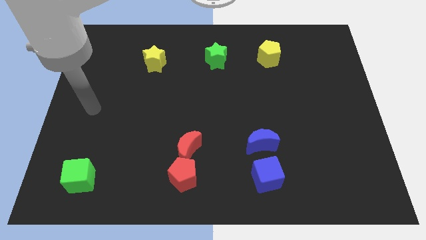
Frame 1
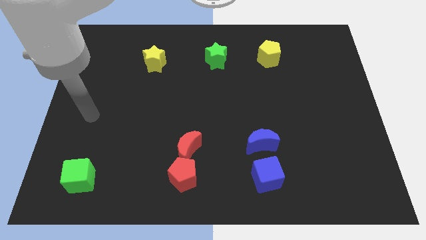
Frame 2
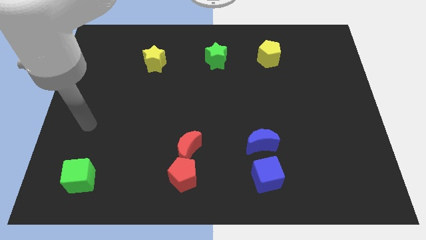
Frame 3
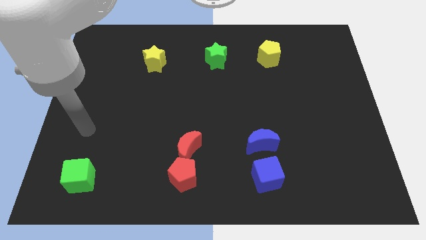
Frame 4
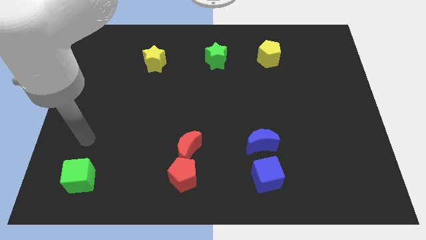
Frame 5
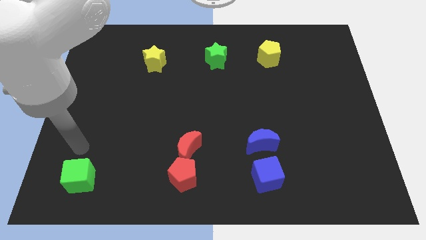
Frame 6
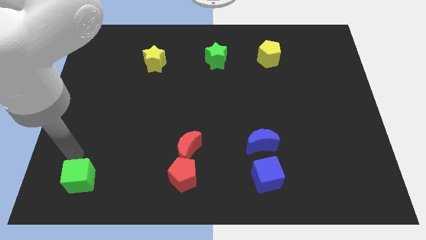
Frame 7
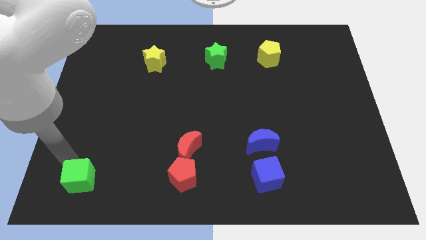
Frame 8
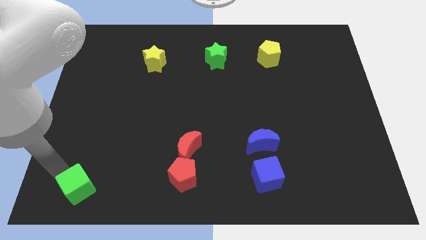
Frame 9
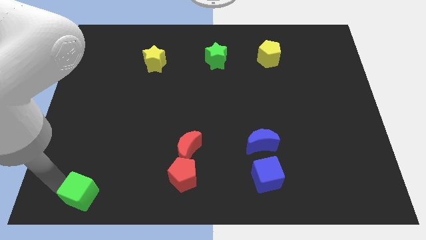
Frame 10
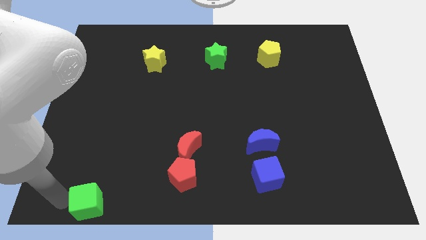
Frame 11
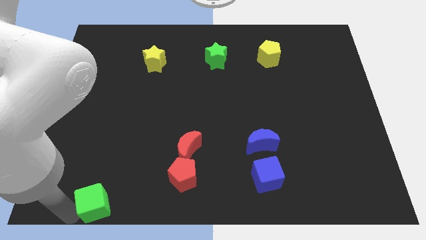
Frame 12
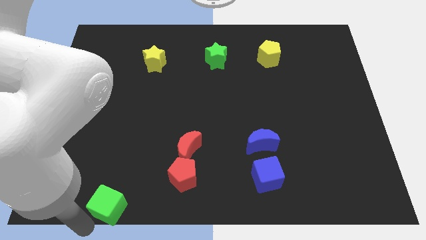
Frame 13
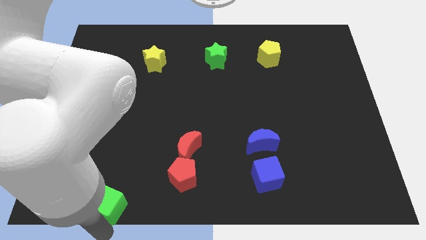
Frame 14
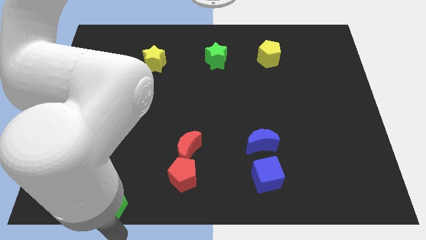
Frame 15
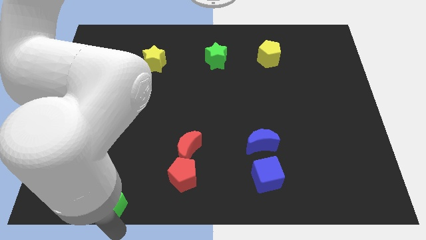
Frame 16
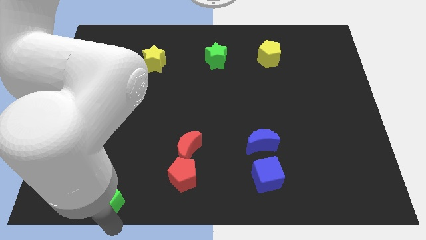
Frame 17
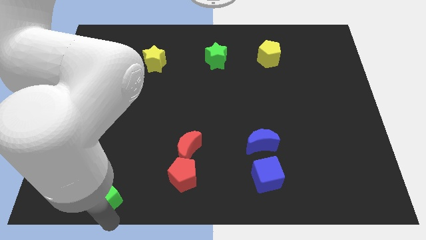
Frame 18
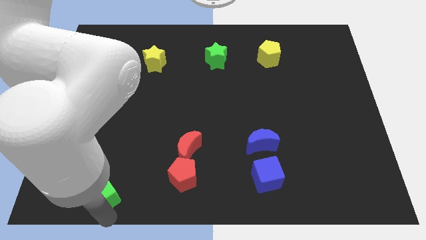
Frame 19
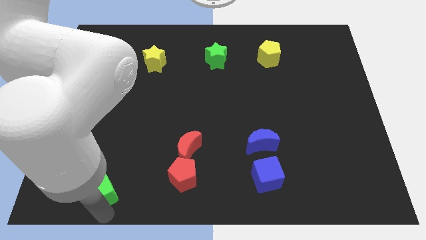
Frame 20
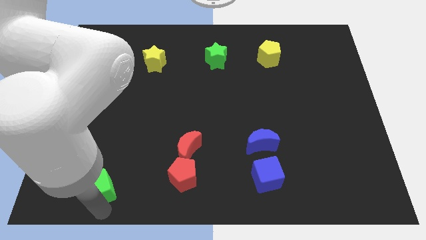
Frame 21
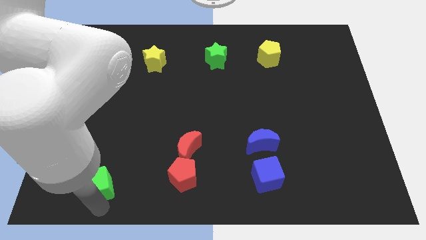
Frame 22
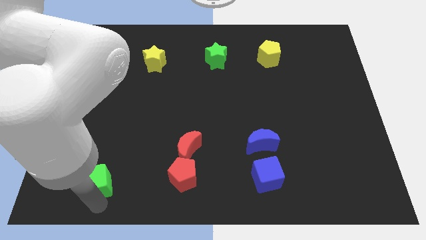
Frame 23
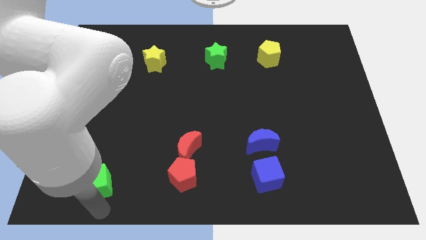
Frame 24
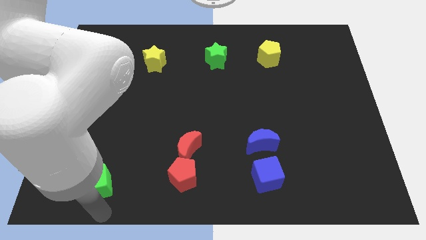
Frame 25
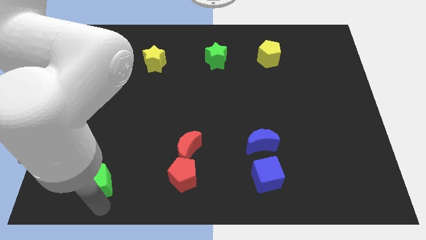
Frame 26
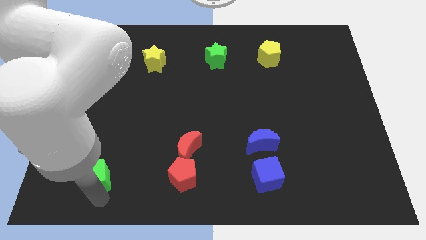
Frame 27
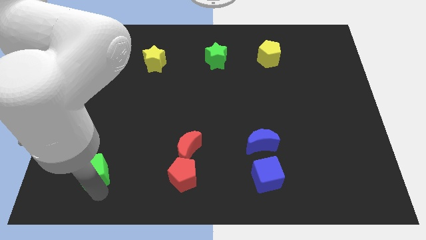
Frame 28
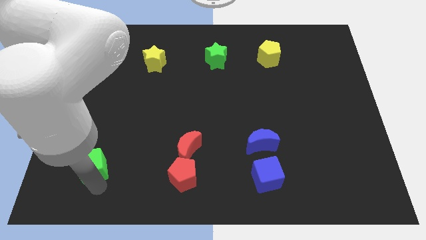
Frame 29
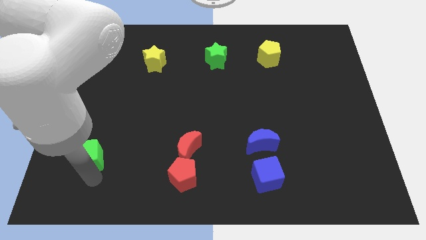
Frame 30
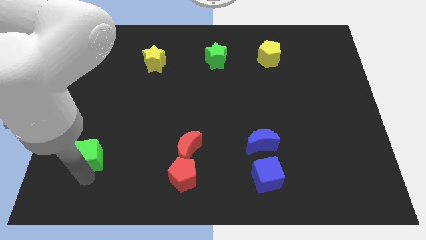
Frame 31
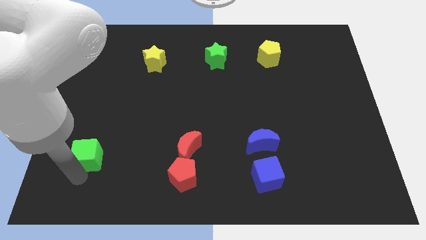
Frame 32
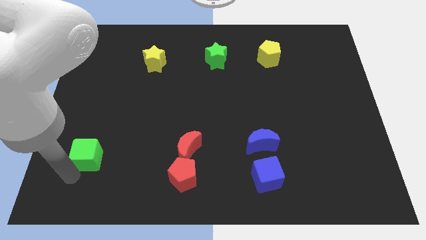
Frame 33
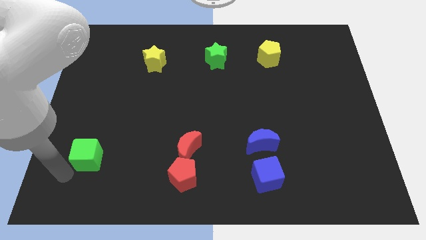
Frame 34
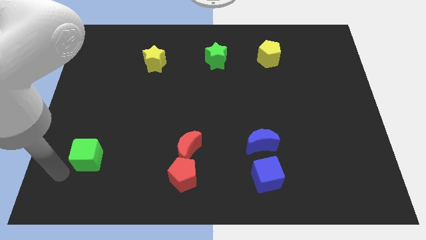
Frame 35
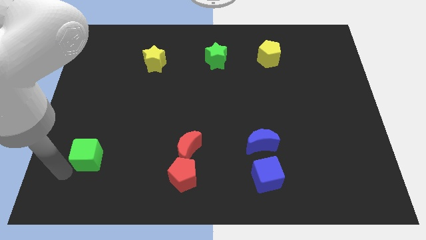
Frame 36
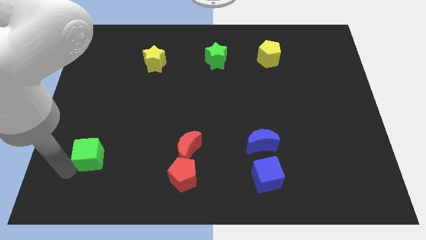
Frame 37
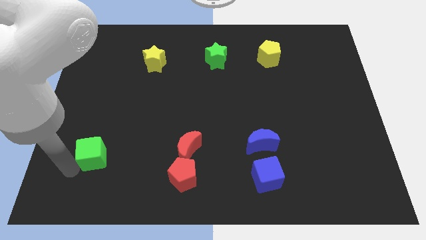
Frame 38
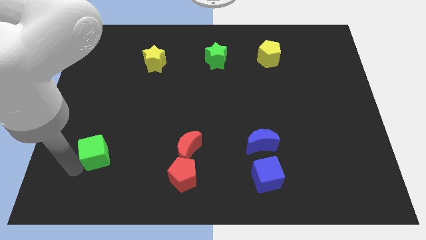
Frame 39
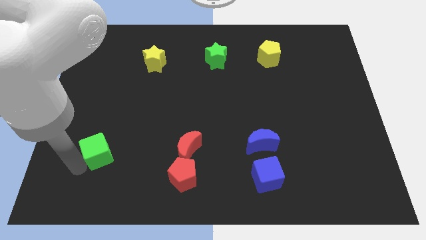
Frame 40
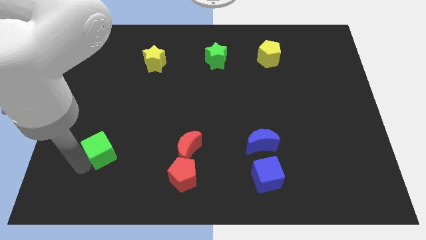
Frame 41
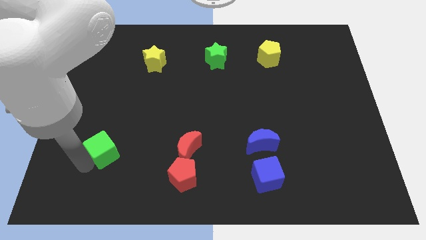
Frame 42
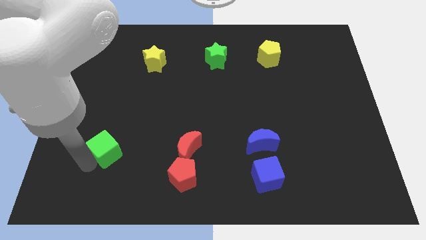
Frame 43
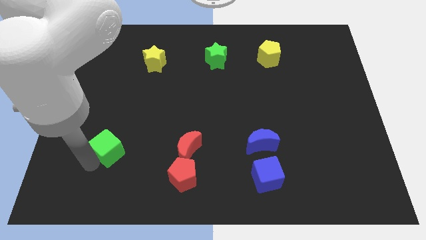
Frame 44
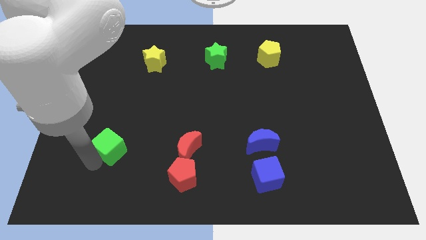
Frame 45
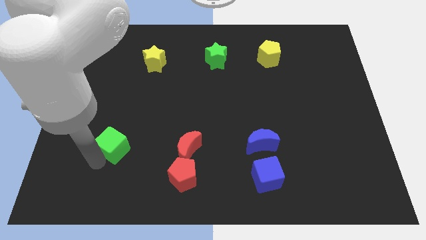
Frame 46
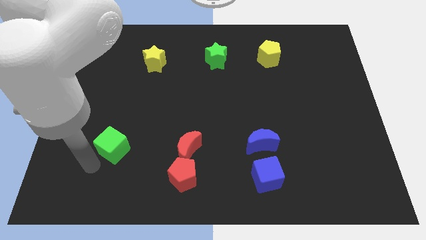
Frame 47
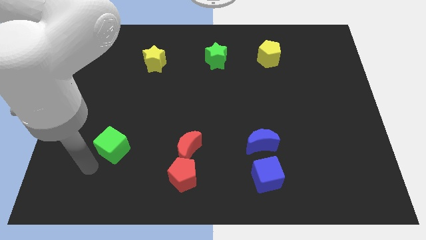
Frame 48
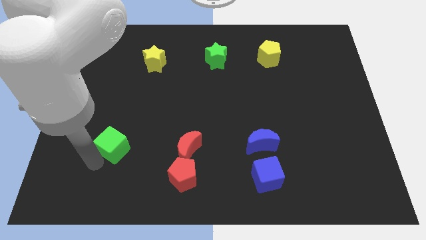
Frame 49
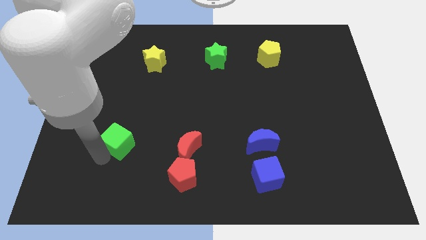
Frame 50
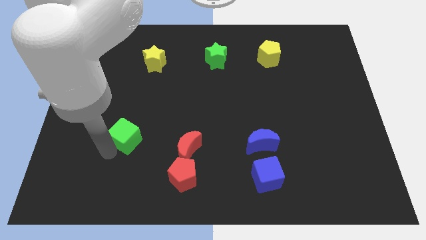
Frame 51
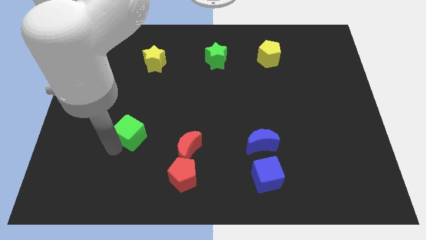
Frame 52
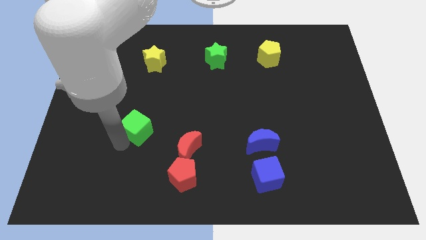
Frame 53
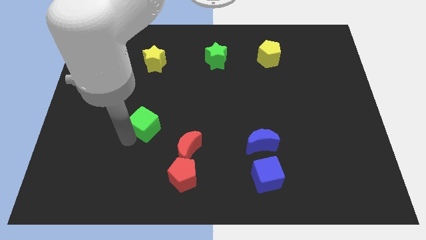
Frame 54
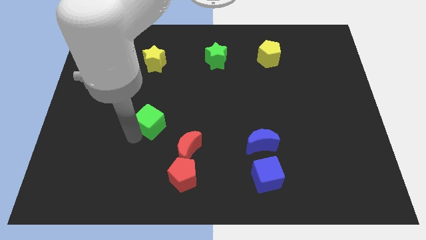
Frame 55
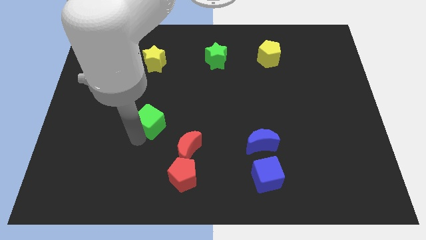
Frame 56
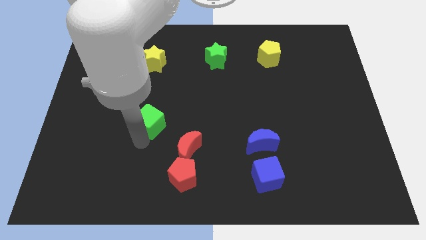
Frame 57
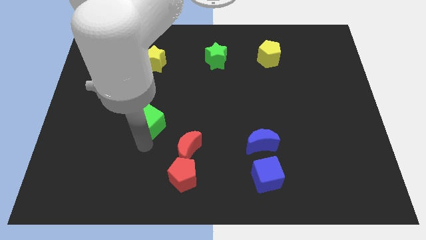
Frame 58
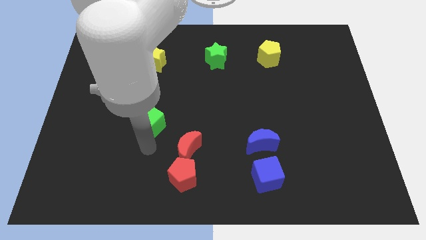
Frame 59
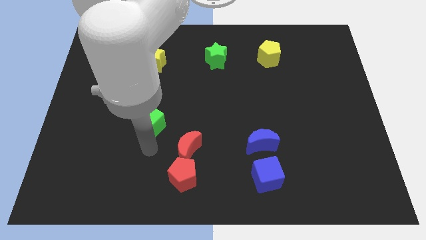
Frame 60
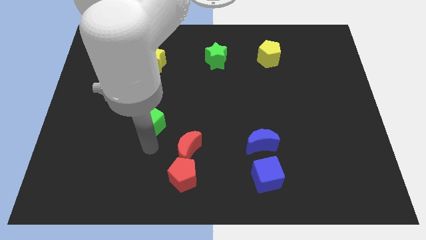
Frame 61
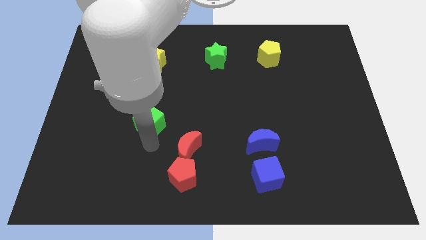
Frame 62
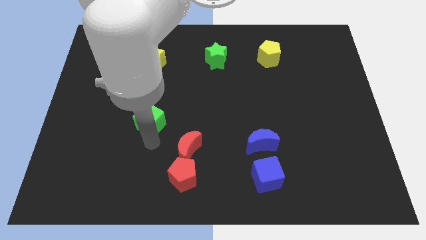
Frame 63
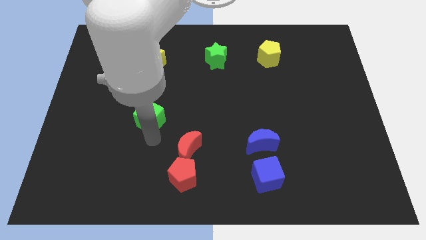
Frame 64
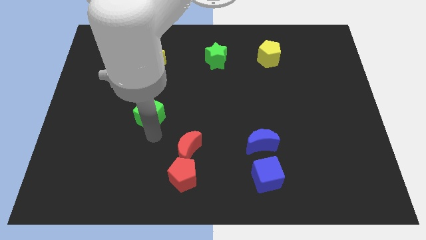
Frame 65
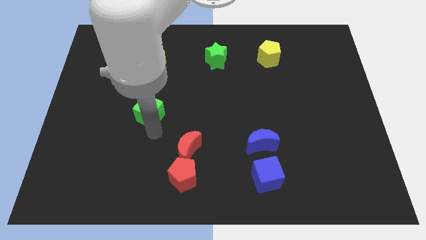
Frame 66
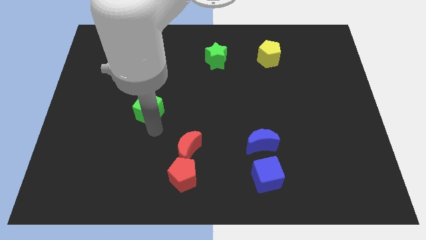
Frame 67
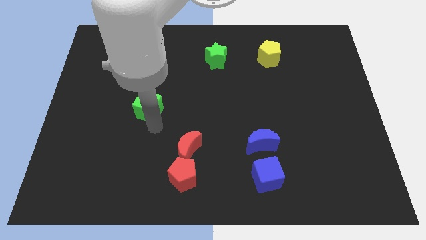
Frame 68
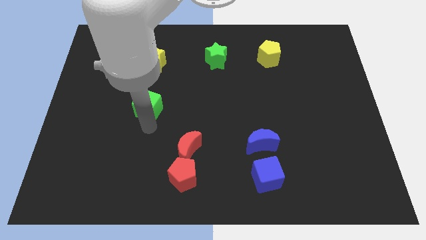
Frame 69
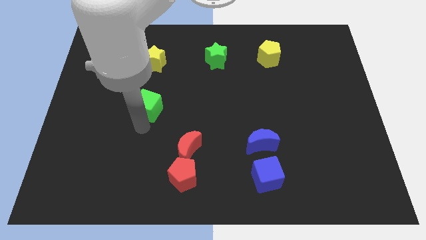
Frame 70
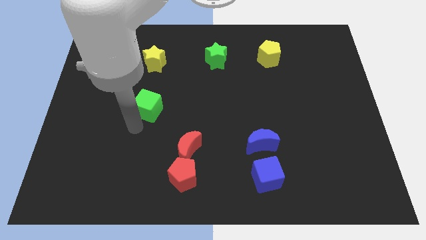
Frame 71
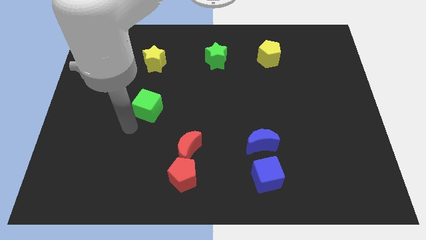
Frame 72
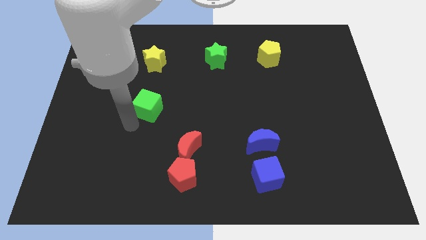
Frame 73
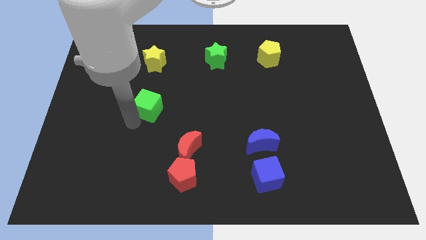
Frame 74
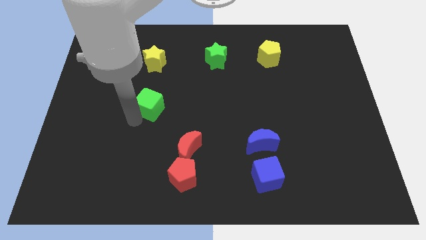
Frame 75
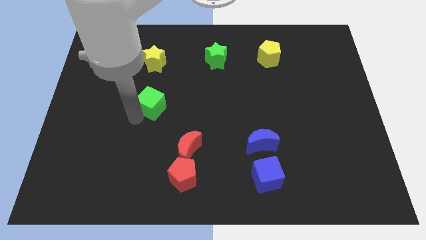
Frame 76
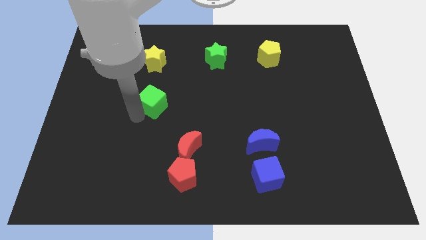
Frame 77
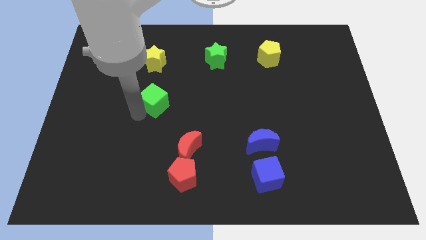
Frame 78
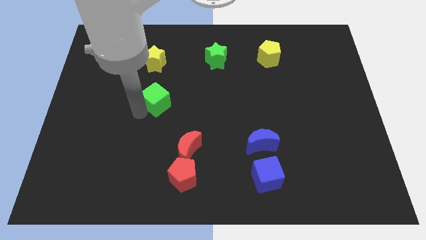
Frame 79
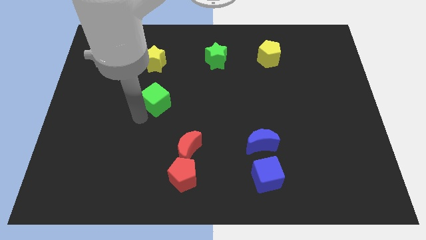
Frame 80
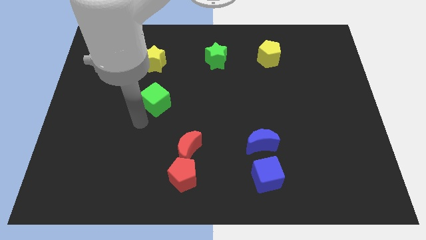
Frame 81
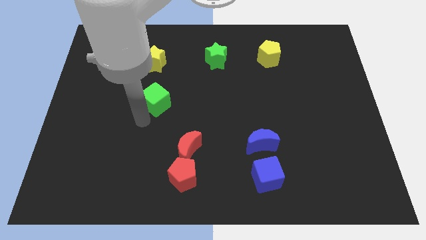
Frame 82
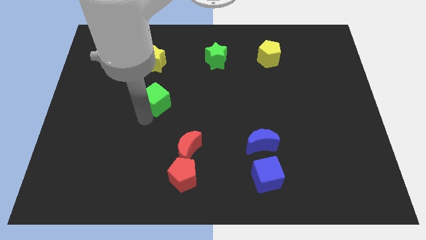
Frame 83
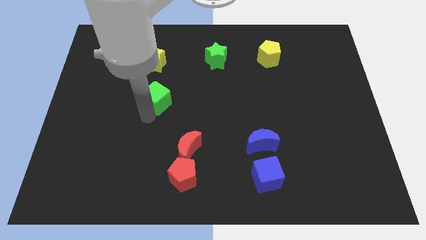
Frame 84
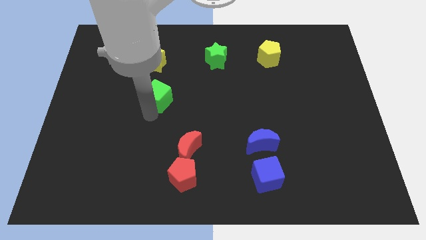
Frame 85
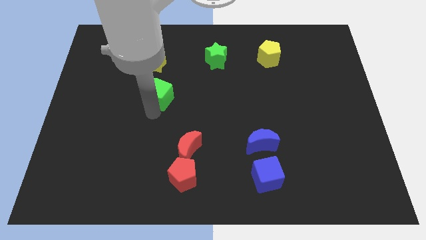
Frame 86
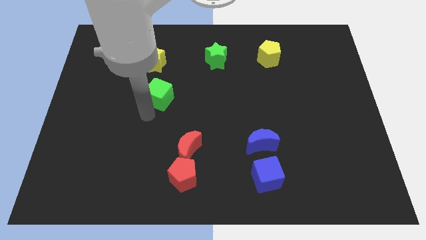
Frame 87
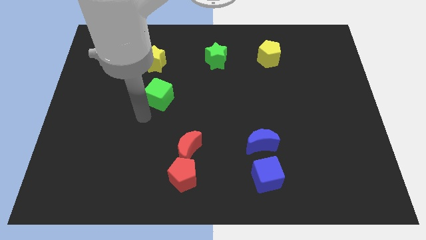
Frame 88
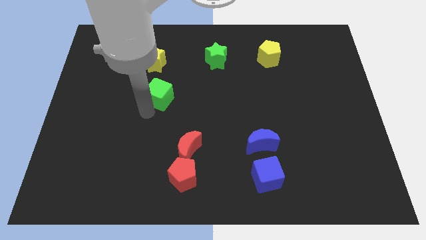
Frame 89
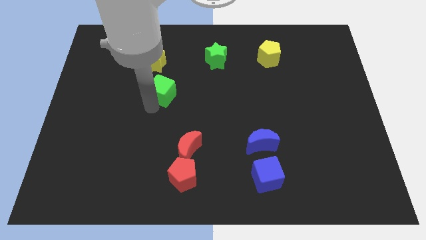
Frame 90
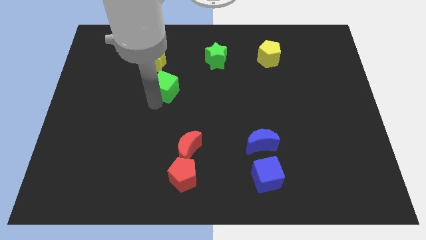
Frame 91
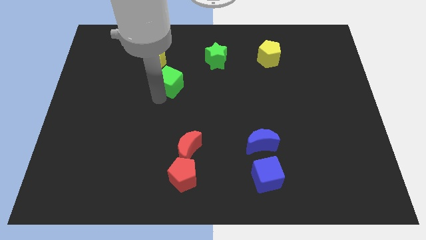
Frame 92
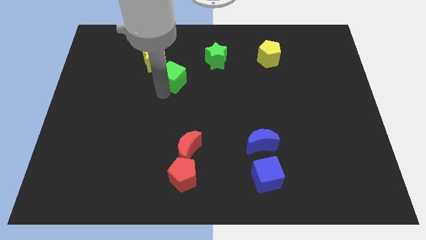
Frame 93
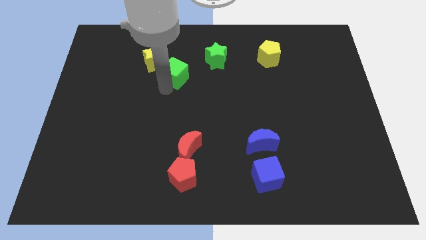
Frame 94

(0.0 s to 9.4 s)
put the green cube to the right side of the yellow star
